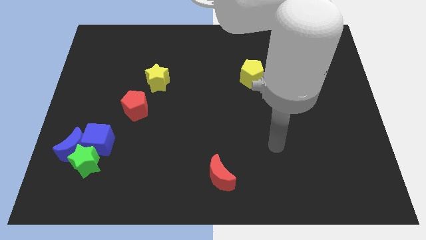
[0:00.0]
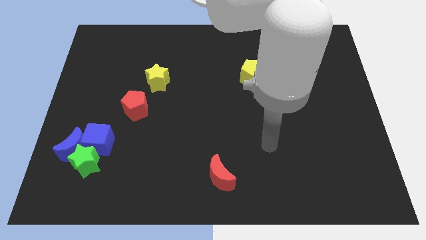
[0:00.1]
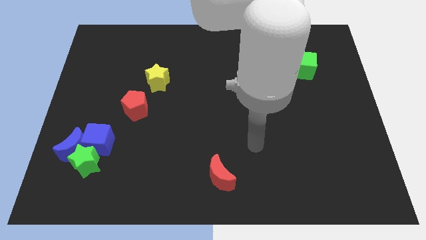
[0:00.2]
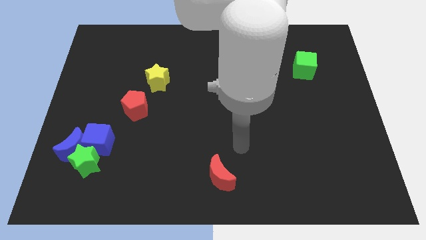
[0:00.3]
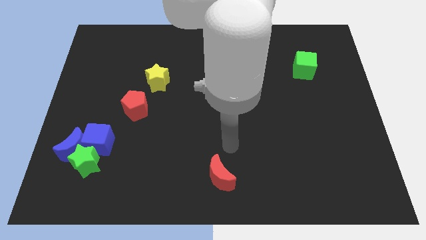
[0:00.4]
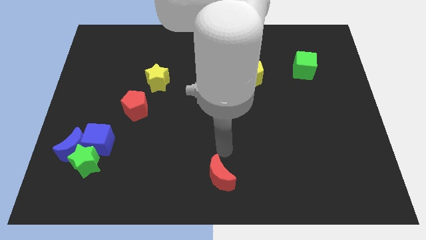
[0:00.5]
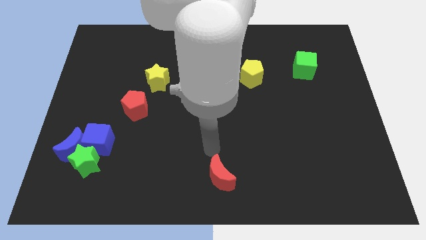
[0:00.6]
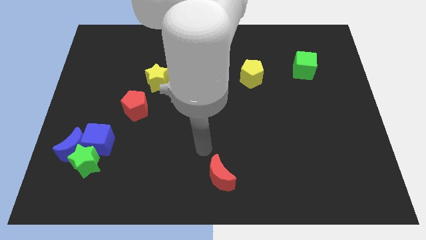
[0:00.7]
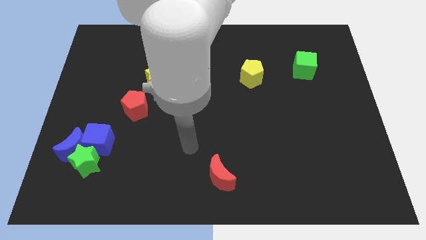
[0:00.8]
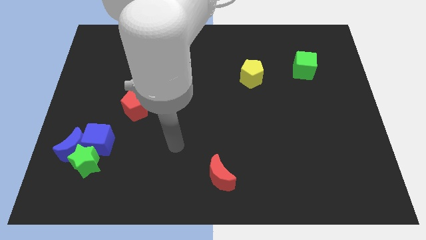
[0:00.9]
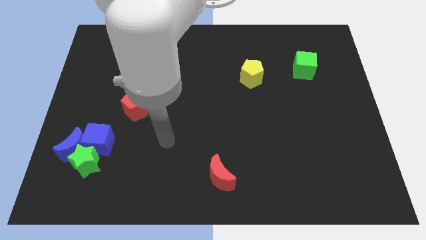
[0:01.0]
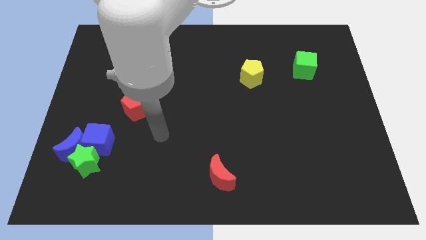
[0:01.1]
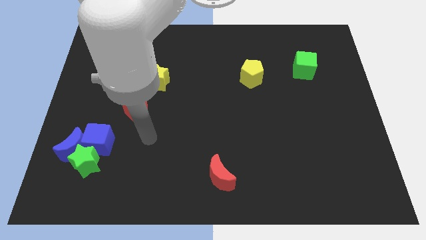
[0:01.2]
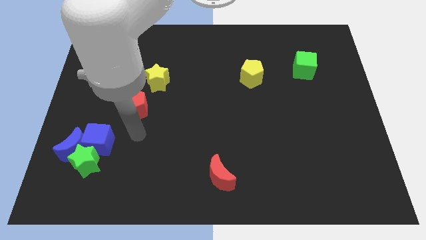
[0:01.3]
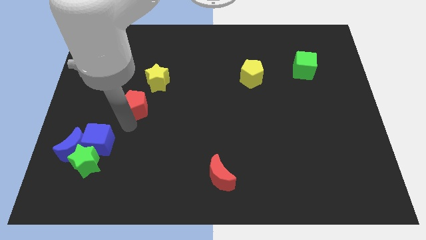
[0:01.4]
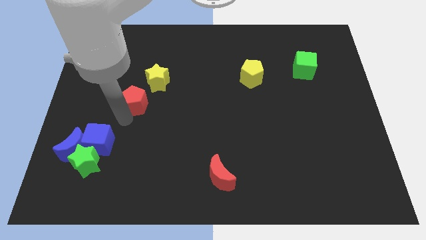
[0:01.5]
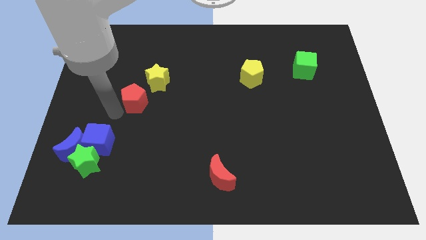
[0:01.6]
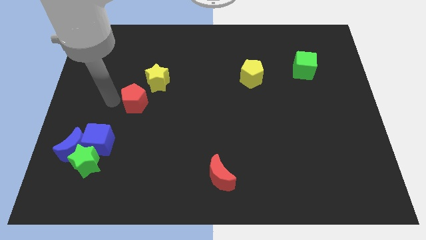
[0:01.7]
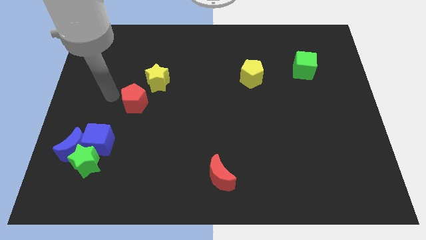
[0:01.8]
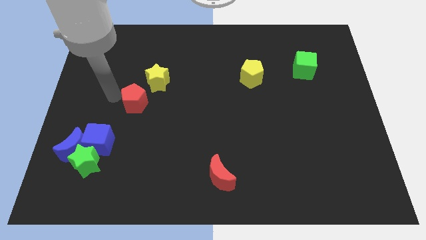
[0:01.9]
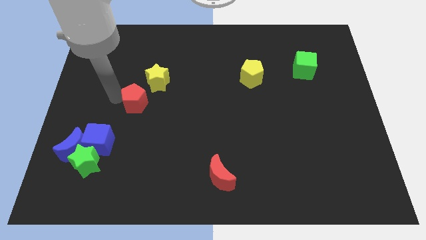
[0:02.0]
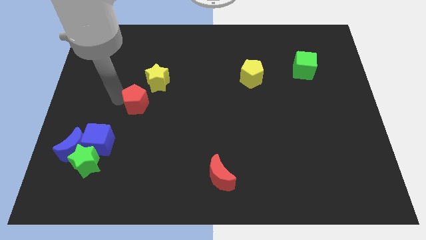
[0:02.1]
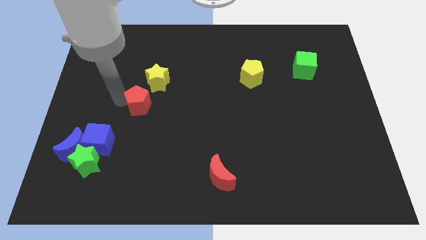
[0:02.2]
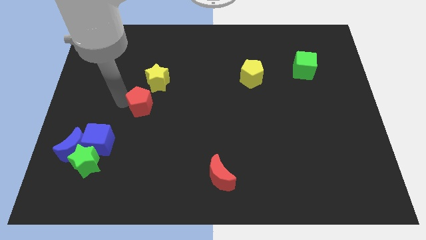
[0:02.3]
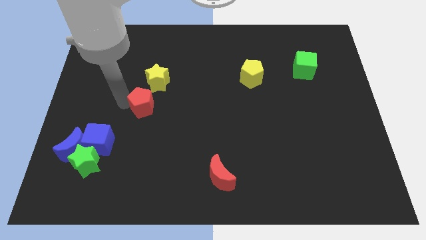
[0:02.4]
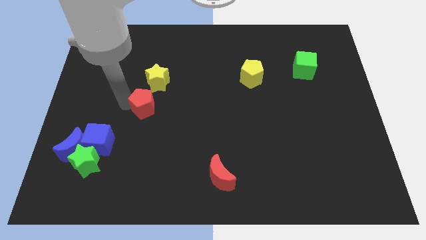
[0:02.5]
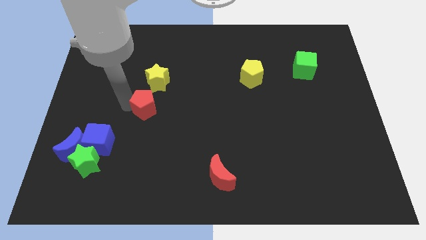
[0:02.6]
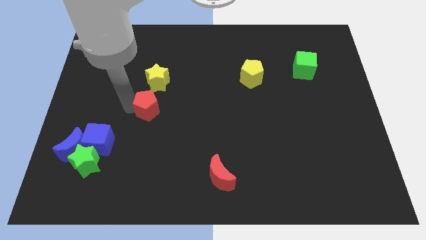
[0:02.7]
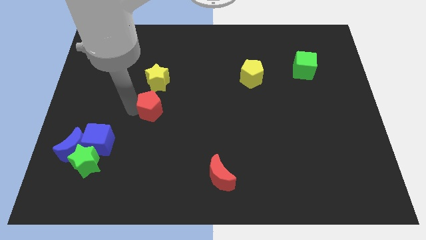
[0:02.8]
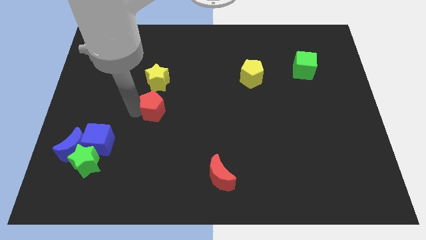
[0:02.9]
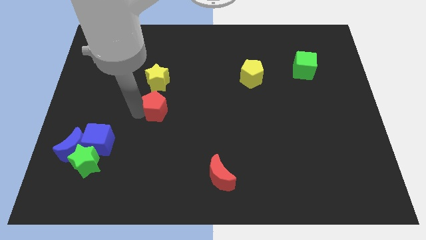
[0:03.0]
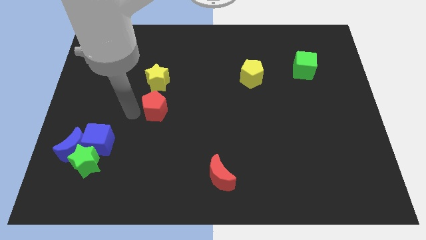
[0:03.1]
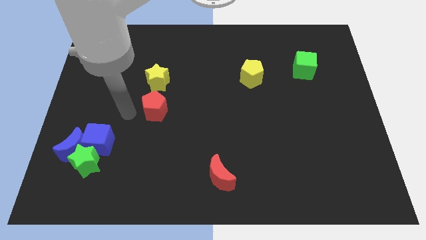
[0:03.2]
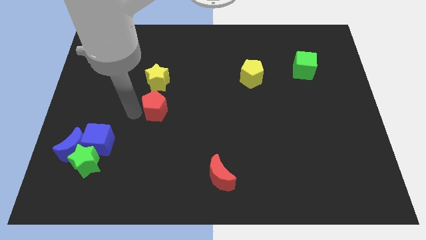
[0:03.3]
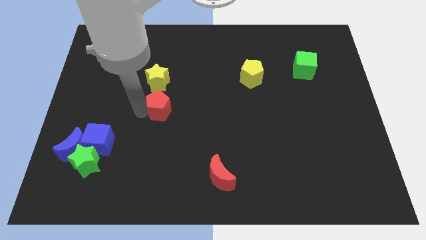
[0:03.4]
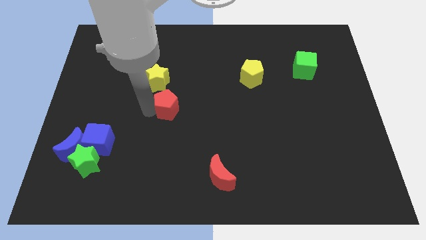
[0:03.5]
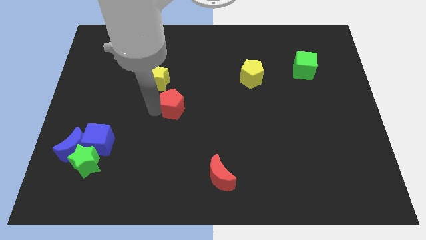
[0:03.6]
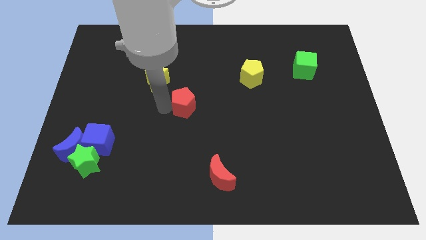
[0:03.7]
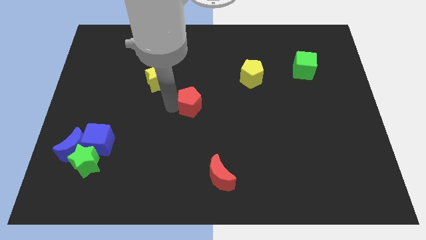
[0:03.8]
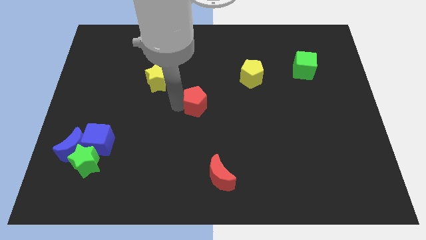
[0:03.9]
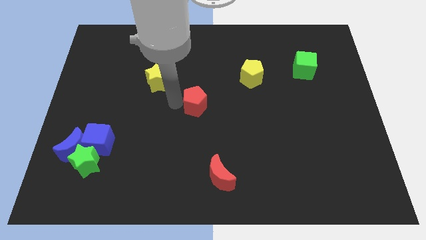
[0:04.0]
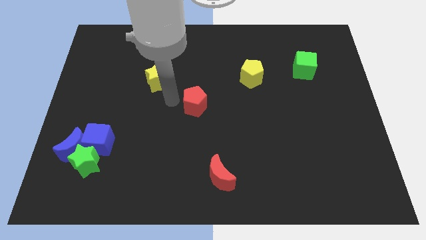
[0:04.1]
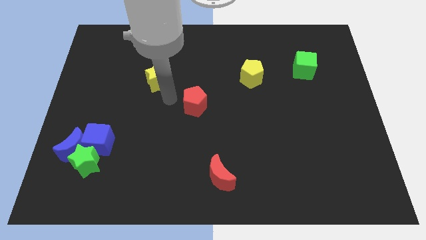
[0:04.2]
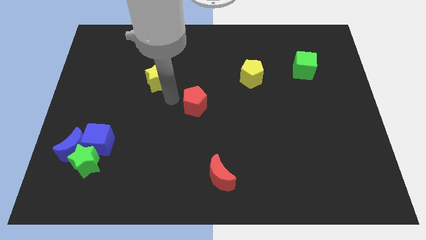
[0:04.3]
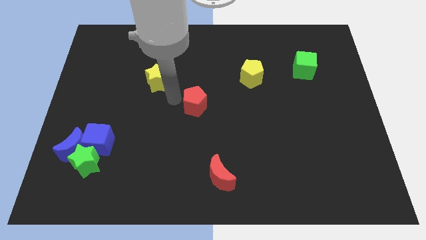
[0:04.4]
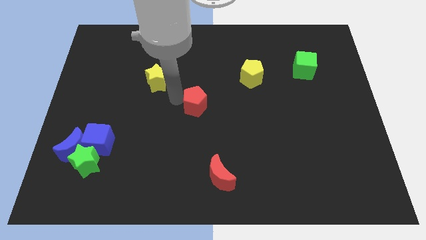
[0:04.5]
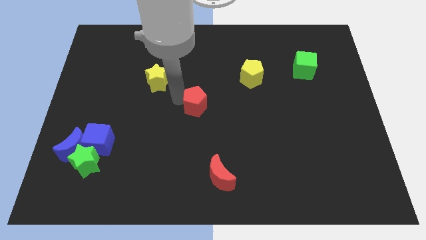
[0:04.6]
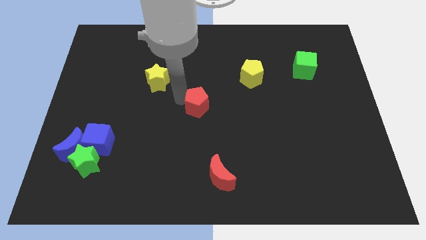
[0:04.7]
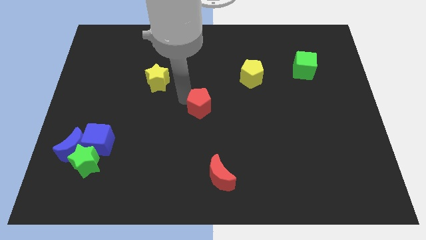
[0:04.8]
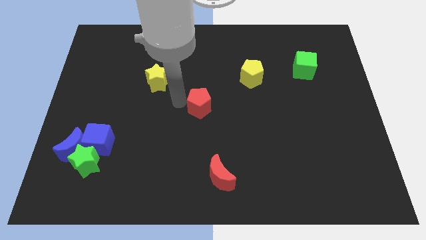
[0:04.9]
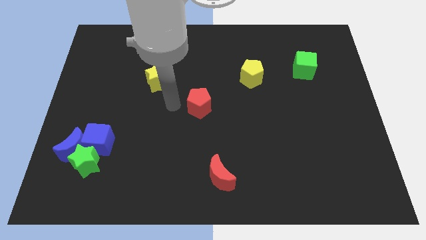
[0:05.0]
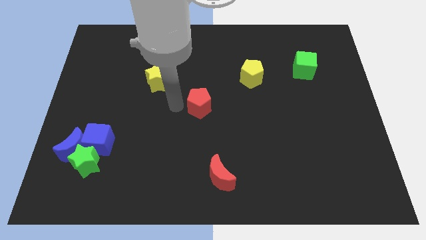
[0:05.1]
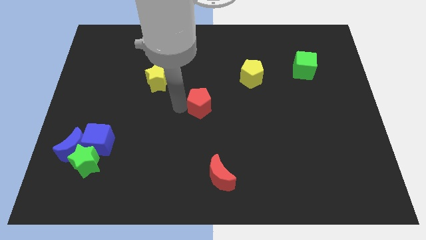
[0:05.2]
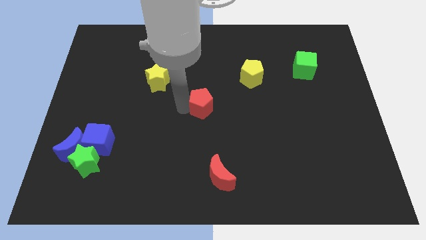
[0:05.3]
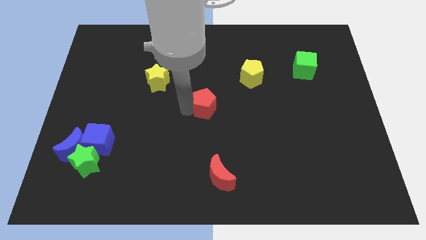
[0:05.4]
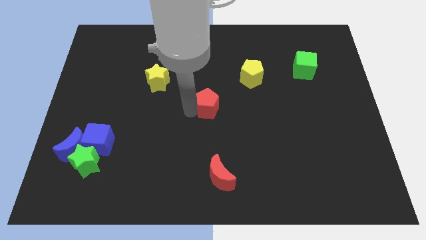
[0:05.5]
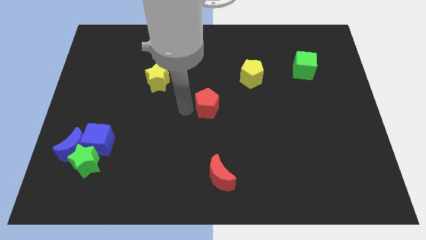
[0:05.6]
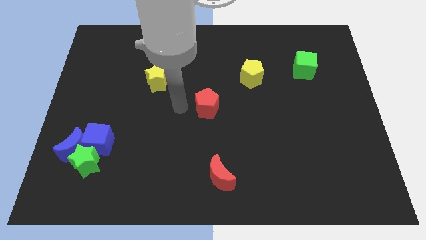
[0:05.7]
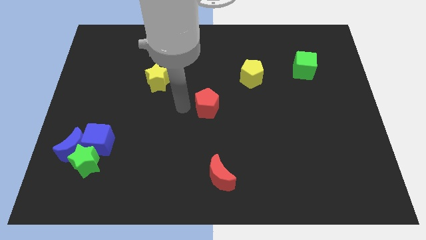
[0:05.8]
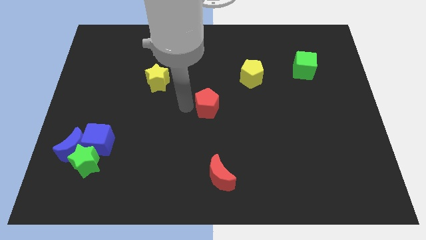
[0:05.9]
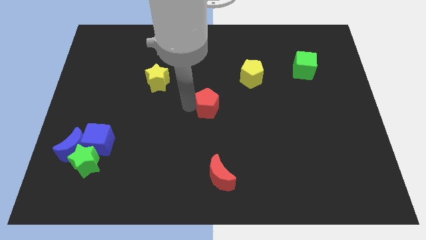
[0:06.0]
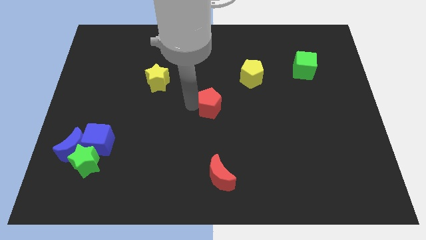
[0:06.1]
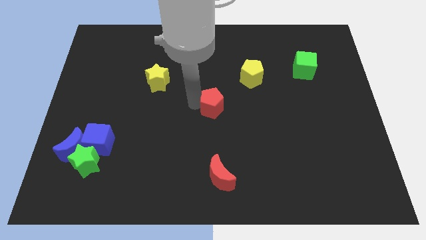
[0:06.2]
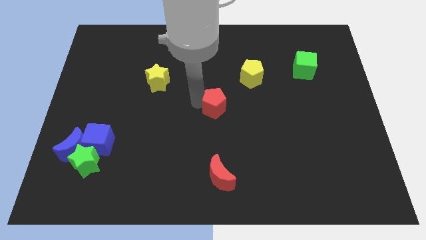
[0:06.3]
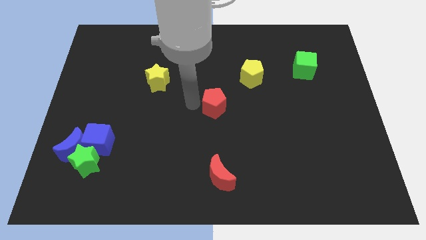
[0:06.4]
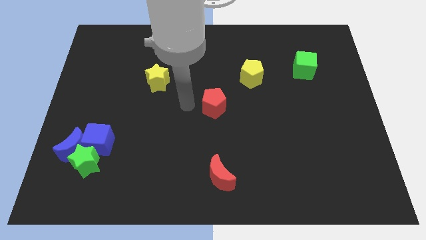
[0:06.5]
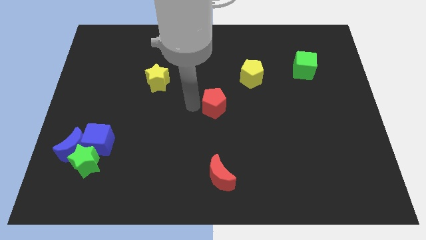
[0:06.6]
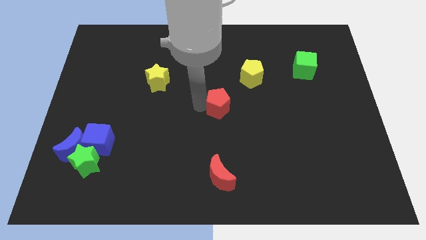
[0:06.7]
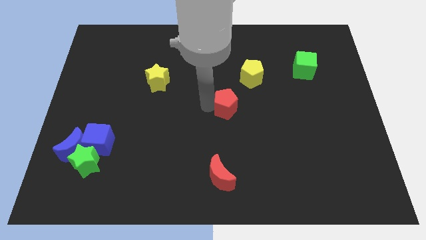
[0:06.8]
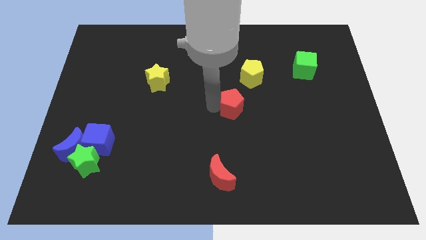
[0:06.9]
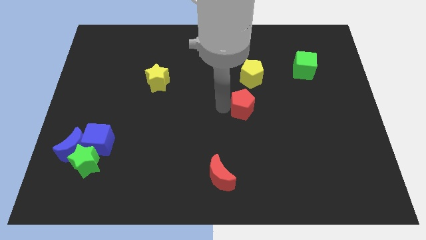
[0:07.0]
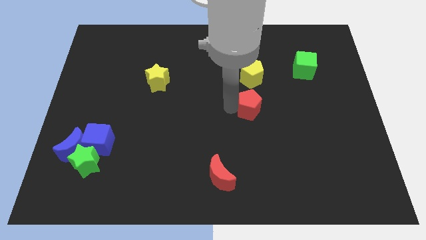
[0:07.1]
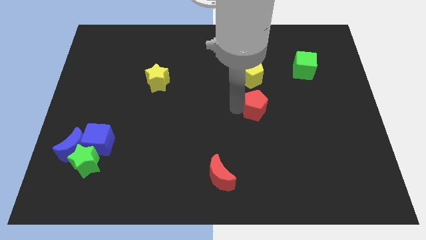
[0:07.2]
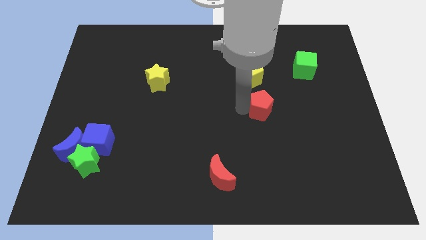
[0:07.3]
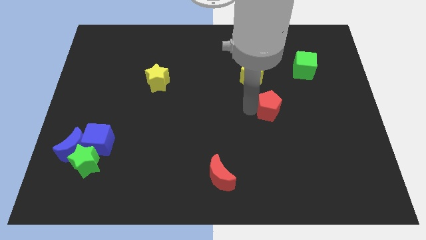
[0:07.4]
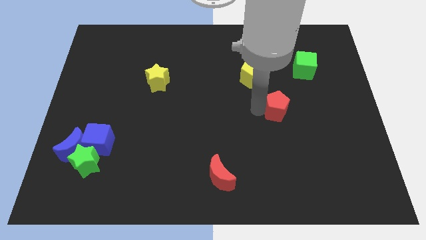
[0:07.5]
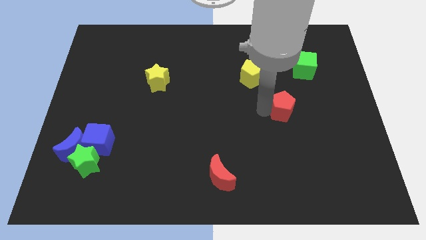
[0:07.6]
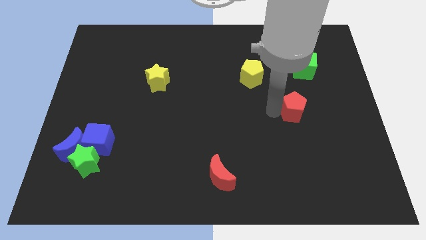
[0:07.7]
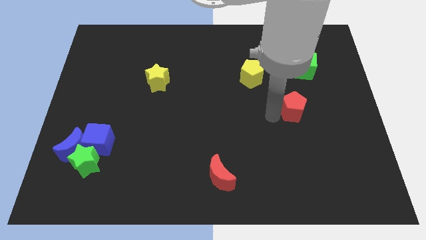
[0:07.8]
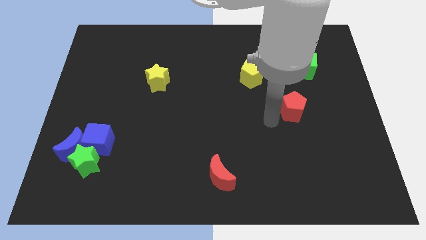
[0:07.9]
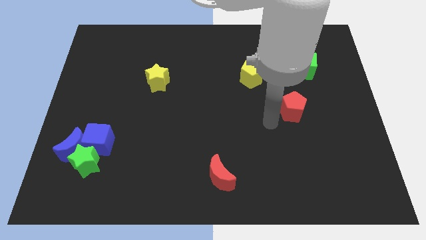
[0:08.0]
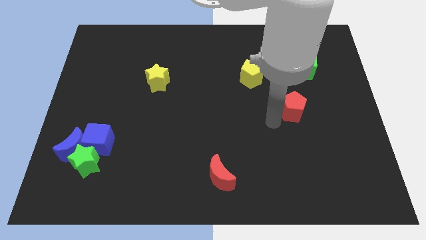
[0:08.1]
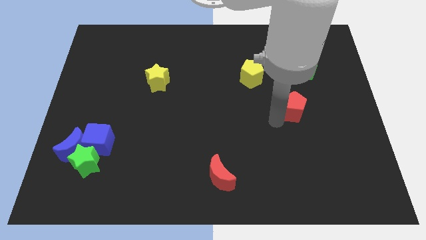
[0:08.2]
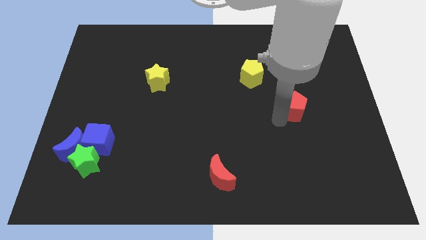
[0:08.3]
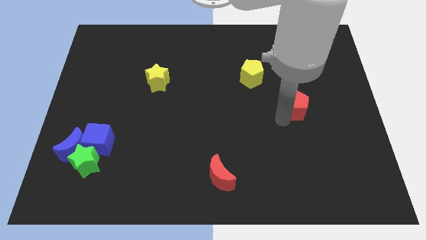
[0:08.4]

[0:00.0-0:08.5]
push the red pentagon to the bottom of the green cube
